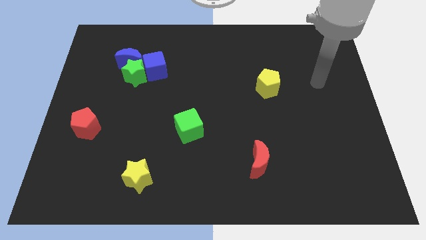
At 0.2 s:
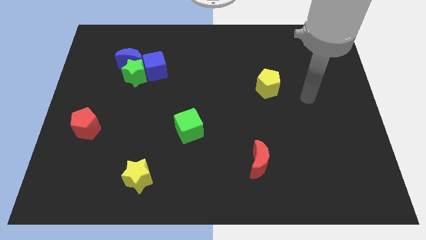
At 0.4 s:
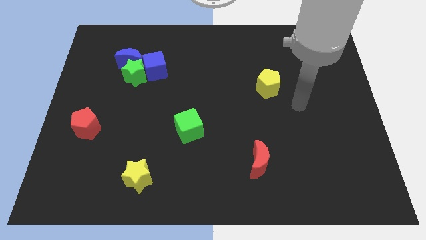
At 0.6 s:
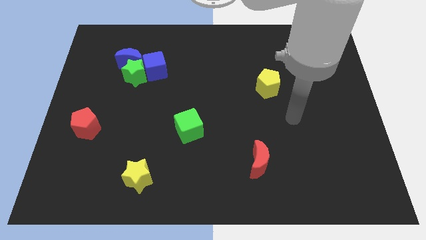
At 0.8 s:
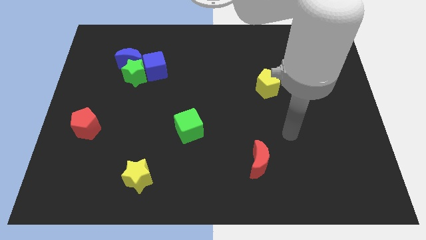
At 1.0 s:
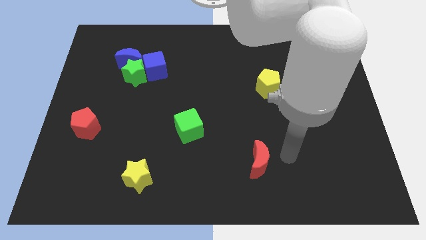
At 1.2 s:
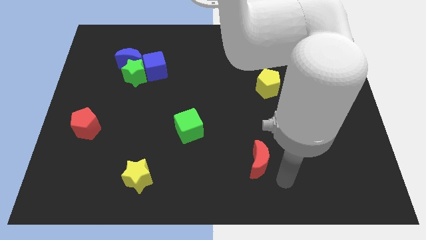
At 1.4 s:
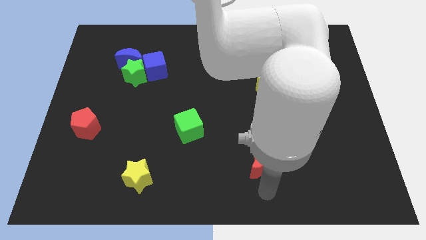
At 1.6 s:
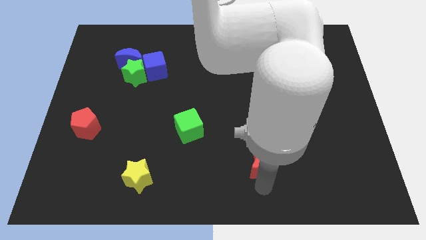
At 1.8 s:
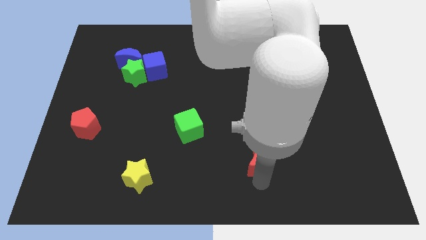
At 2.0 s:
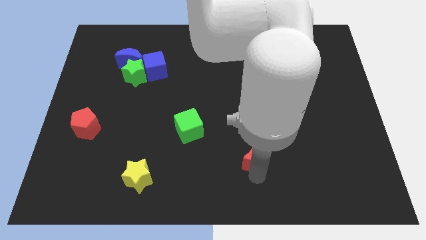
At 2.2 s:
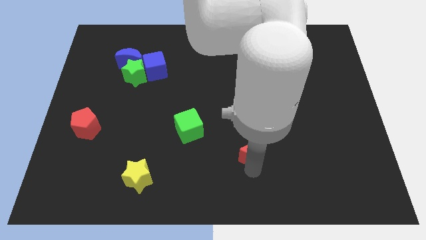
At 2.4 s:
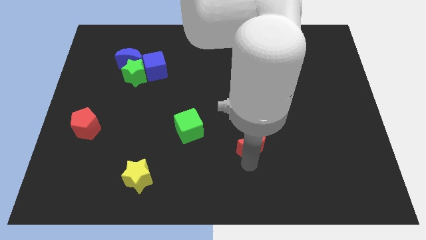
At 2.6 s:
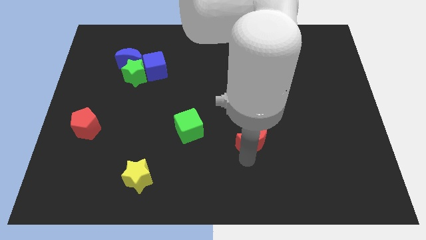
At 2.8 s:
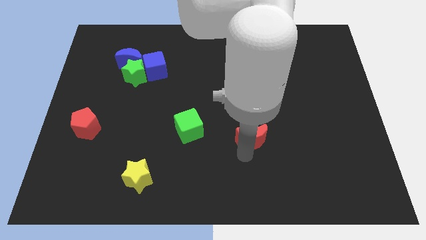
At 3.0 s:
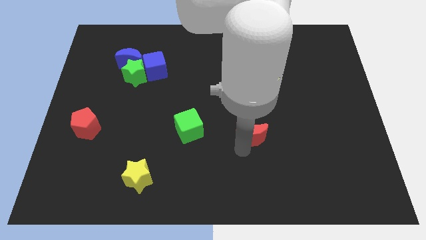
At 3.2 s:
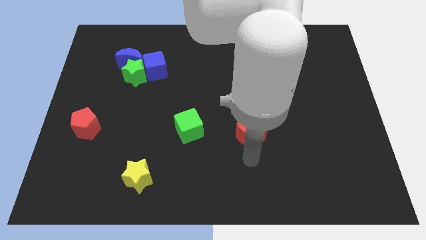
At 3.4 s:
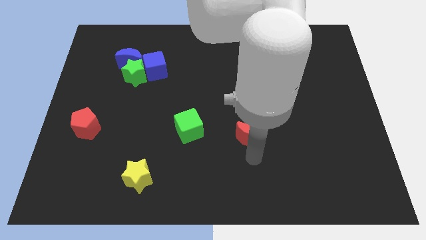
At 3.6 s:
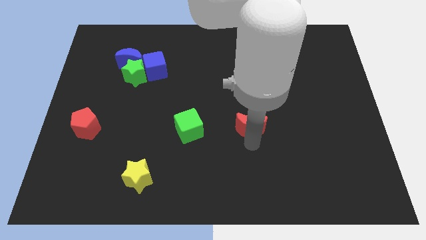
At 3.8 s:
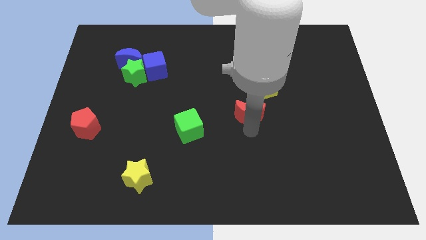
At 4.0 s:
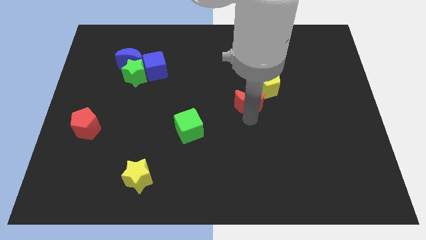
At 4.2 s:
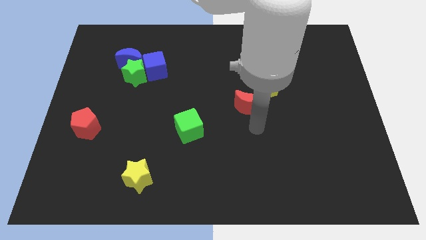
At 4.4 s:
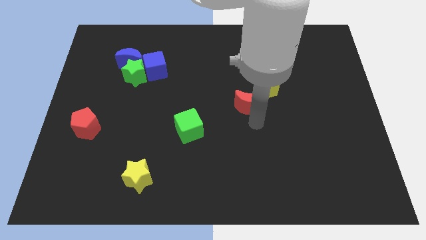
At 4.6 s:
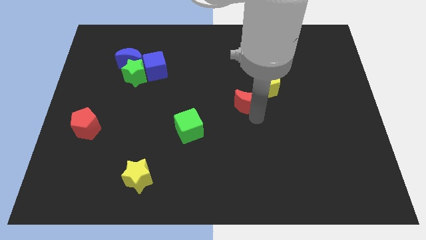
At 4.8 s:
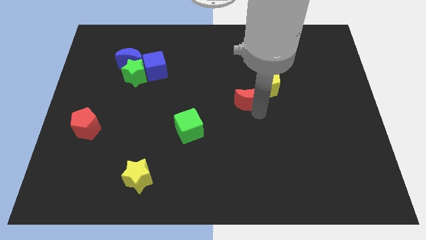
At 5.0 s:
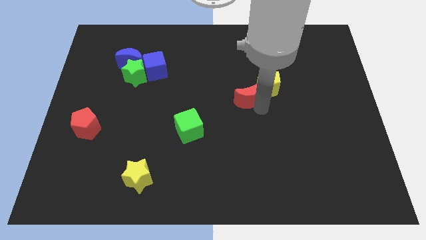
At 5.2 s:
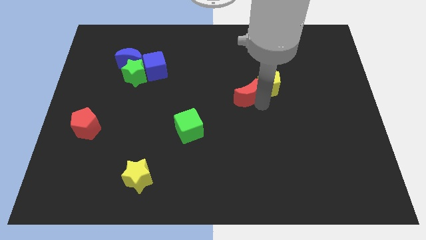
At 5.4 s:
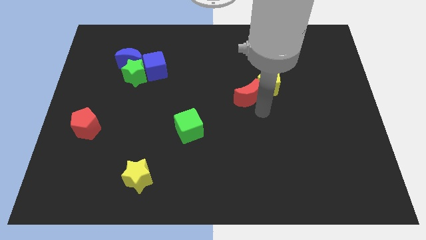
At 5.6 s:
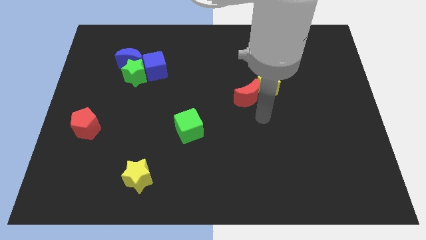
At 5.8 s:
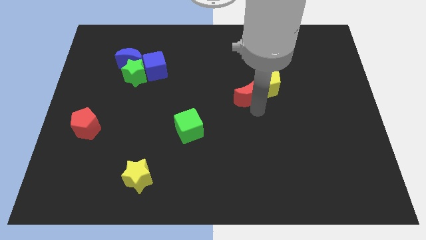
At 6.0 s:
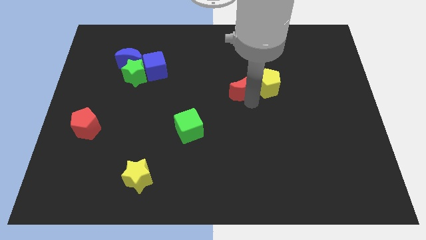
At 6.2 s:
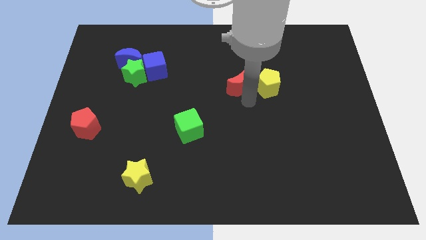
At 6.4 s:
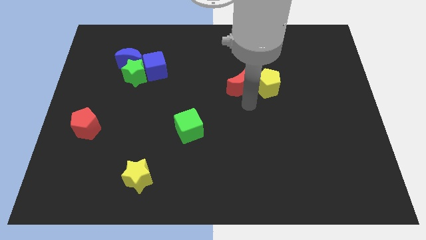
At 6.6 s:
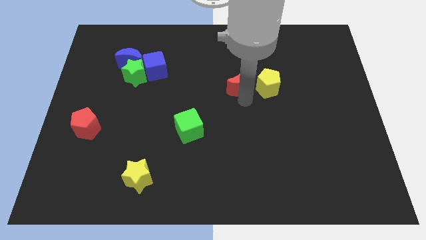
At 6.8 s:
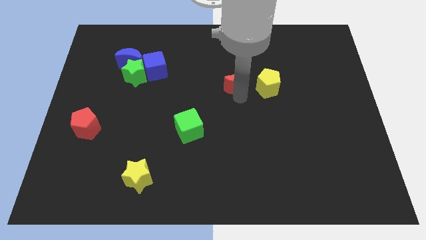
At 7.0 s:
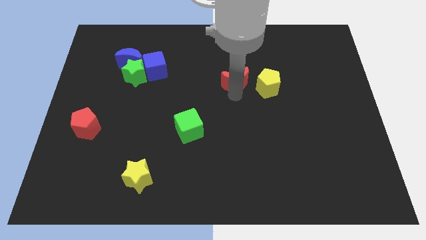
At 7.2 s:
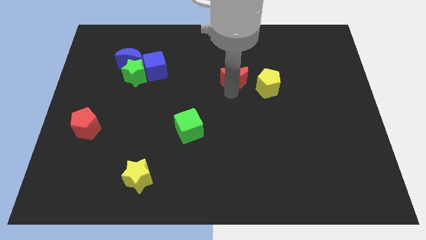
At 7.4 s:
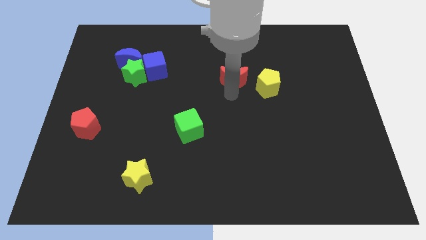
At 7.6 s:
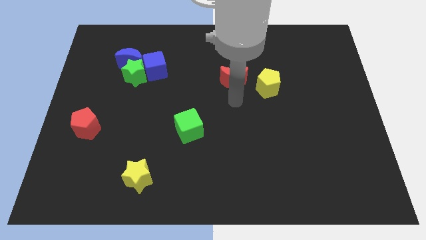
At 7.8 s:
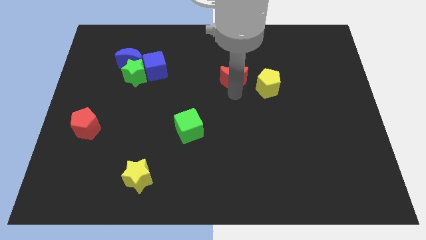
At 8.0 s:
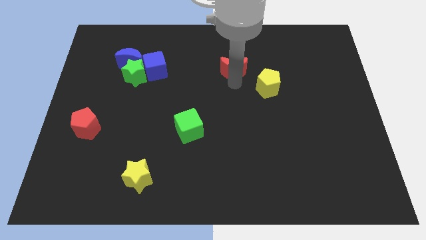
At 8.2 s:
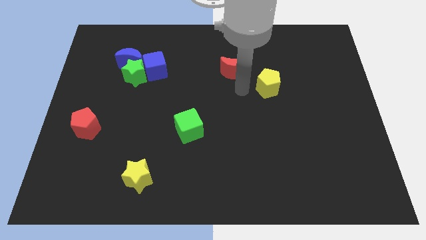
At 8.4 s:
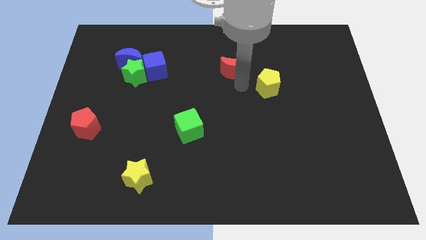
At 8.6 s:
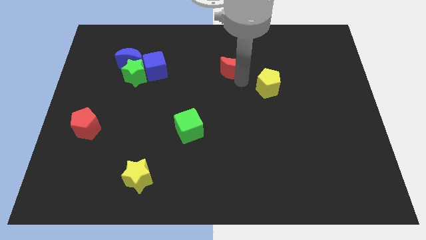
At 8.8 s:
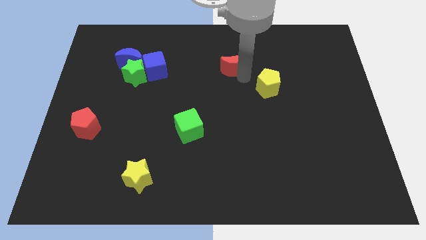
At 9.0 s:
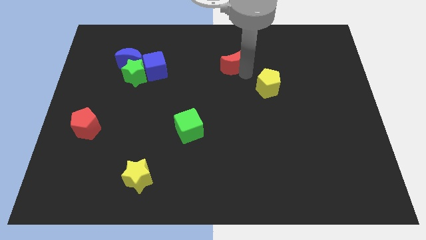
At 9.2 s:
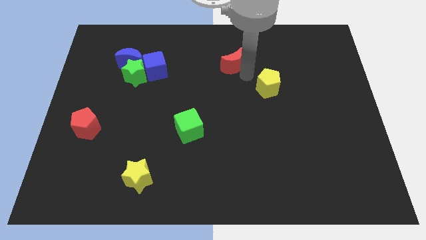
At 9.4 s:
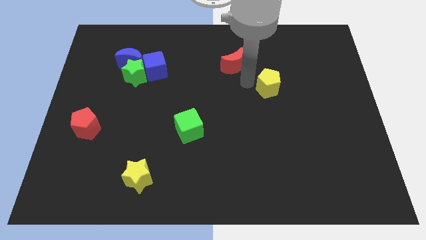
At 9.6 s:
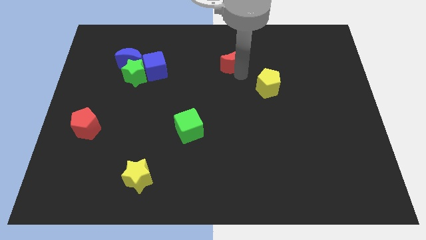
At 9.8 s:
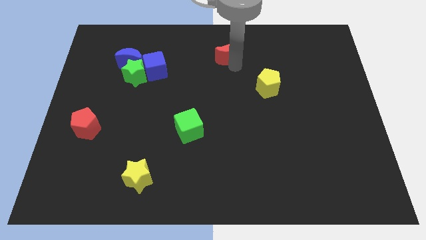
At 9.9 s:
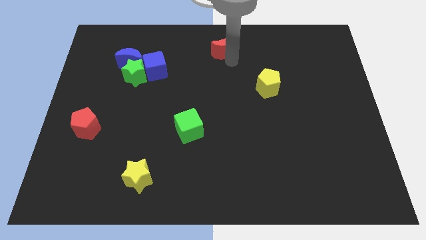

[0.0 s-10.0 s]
push the red moon to the top
